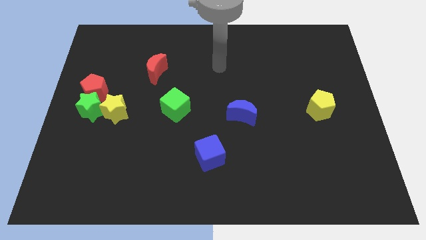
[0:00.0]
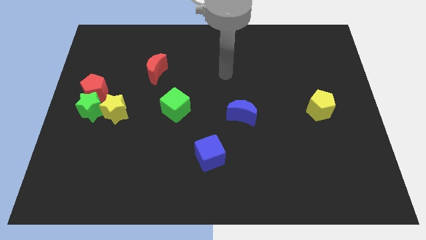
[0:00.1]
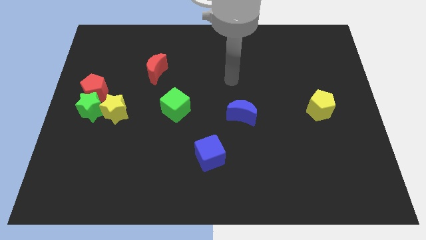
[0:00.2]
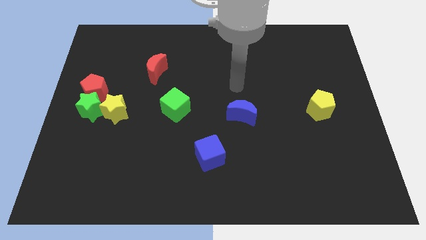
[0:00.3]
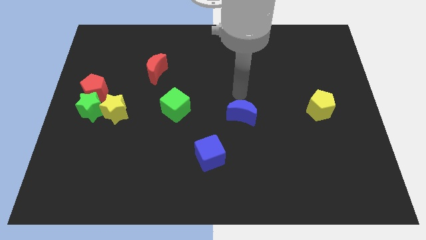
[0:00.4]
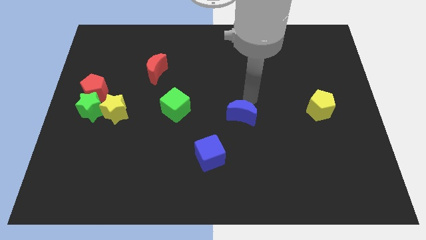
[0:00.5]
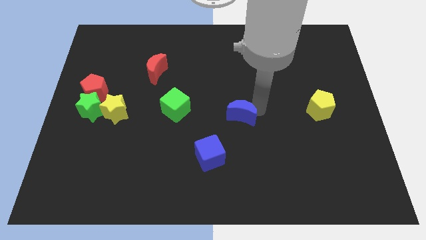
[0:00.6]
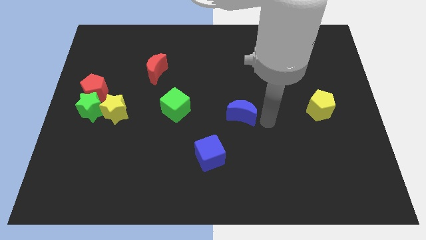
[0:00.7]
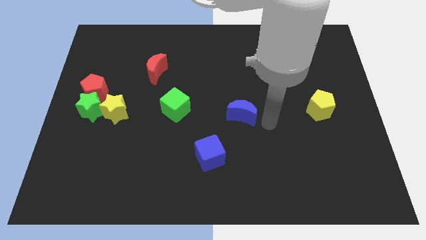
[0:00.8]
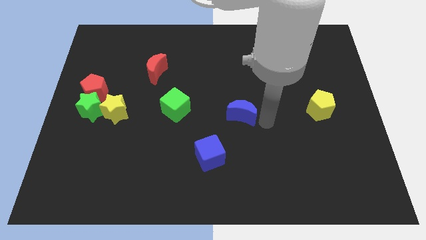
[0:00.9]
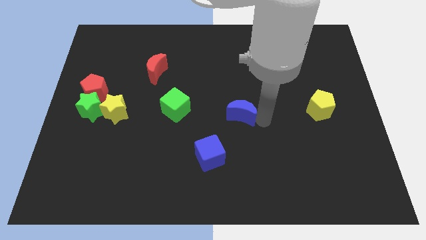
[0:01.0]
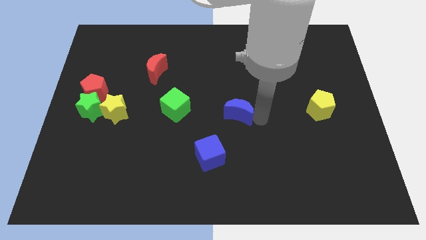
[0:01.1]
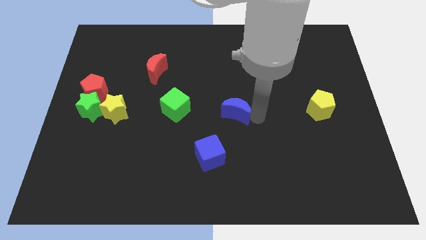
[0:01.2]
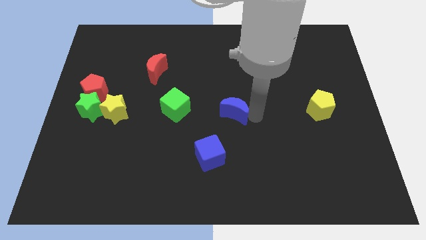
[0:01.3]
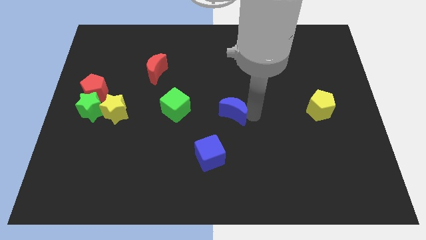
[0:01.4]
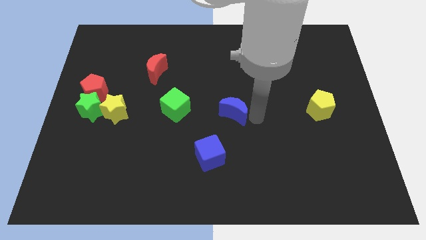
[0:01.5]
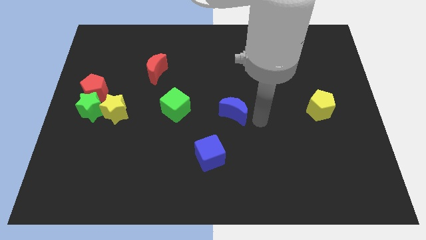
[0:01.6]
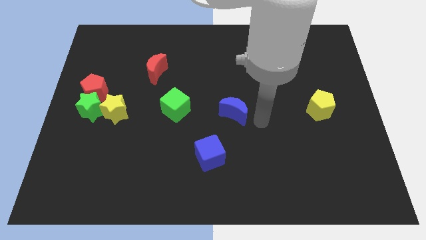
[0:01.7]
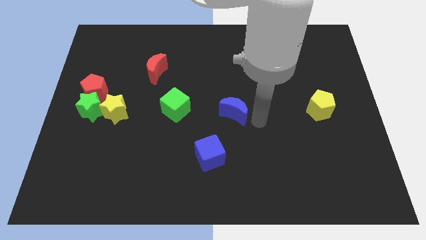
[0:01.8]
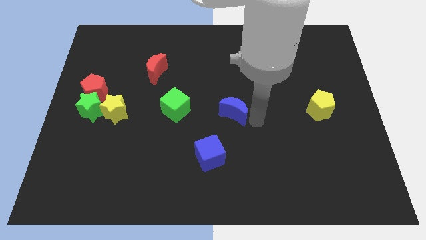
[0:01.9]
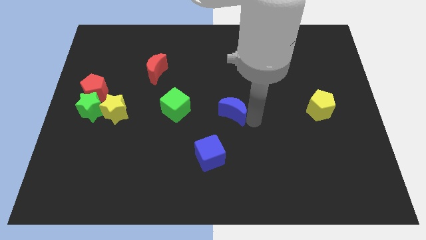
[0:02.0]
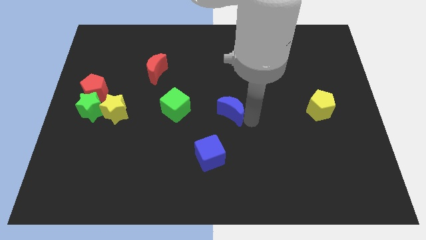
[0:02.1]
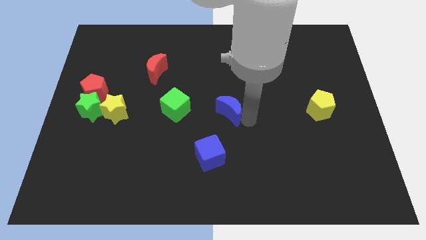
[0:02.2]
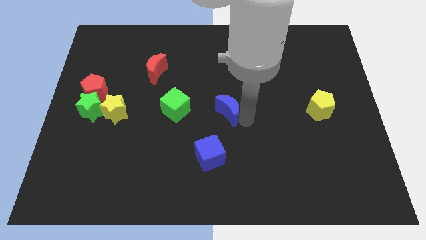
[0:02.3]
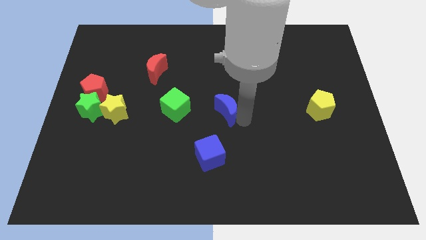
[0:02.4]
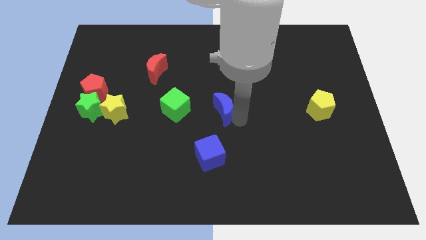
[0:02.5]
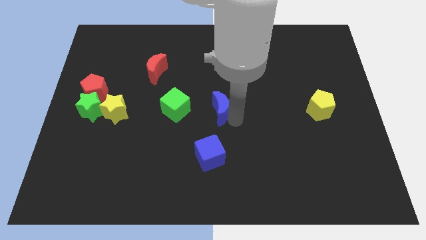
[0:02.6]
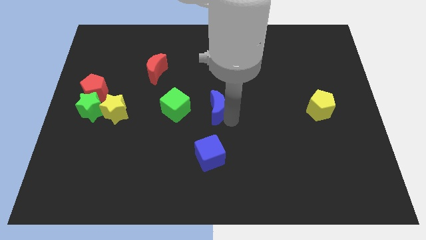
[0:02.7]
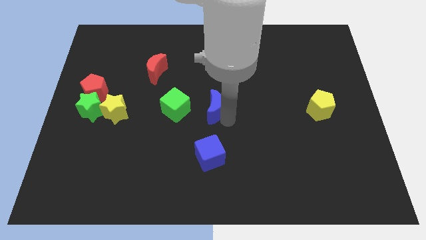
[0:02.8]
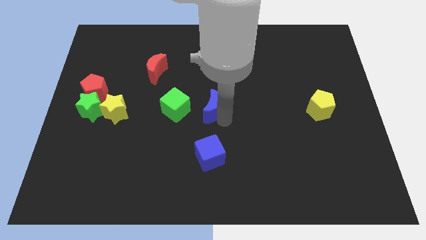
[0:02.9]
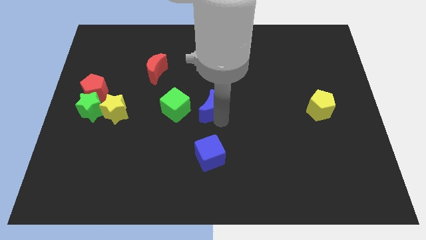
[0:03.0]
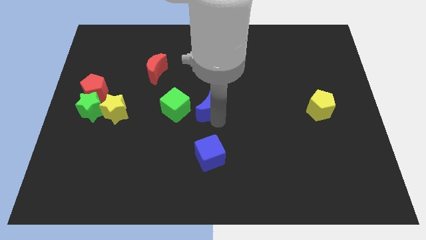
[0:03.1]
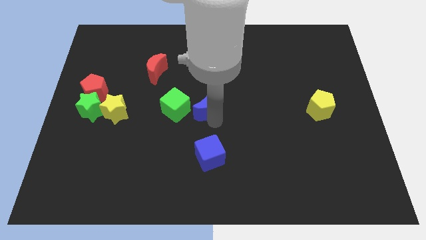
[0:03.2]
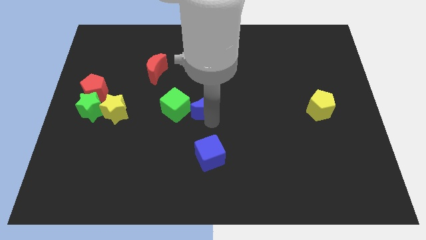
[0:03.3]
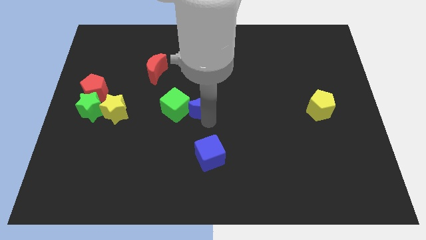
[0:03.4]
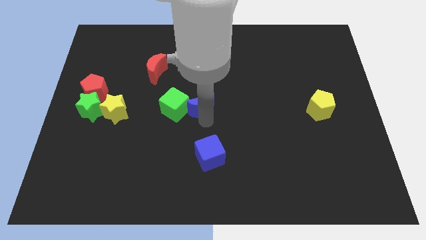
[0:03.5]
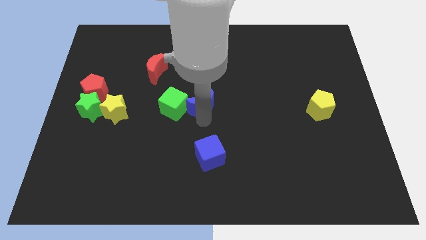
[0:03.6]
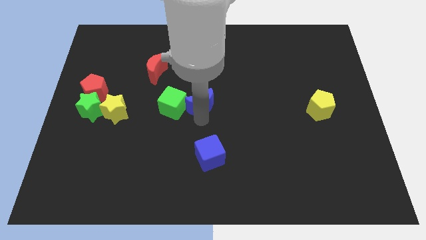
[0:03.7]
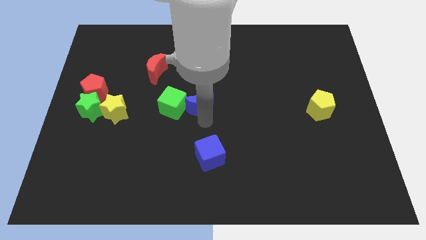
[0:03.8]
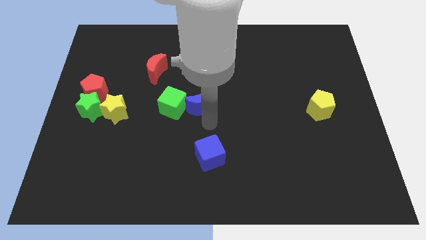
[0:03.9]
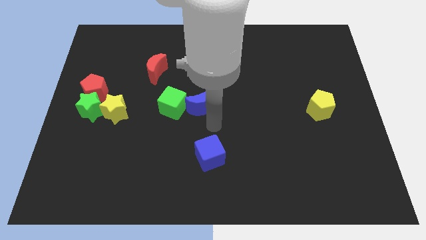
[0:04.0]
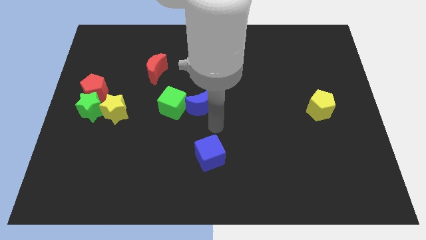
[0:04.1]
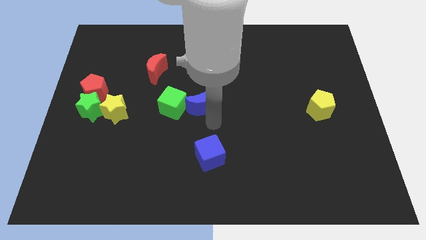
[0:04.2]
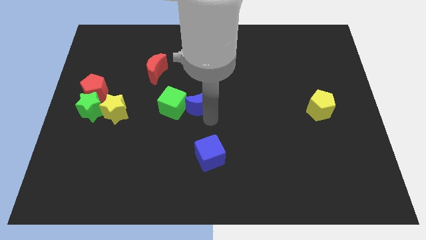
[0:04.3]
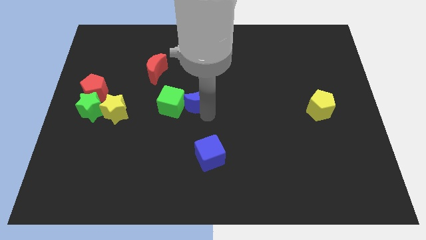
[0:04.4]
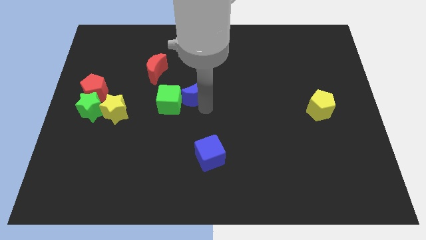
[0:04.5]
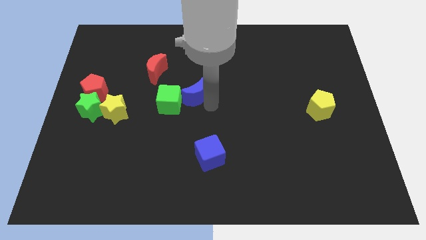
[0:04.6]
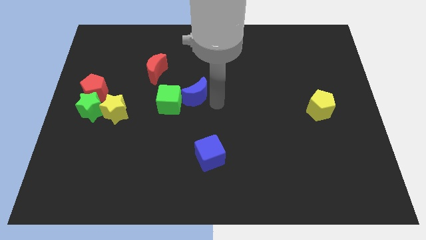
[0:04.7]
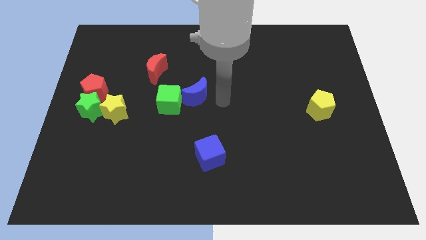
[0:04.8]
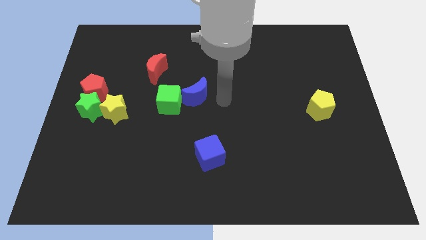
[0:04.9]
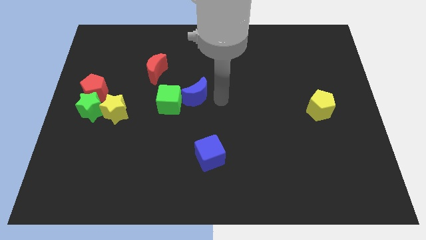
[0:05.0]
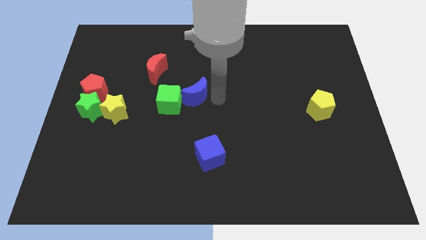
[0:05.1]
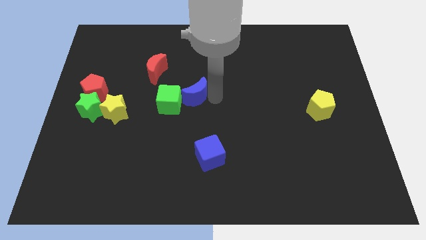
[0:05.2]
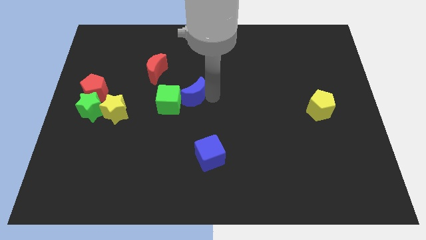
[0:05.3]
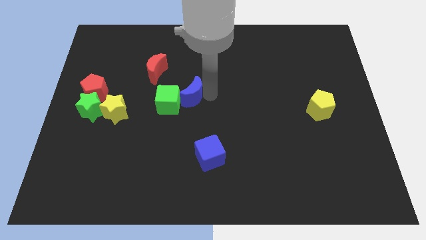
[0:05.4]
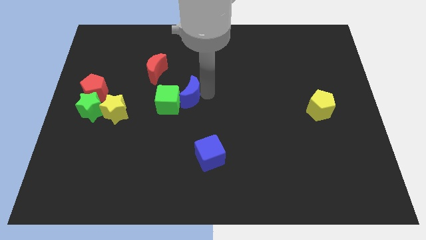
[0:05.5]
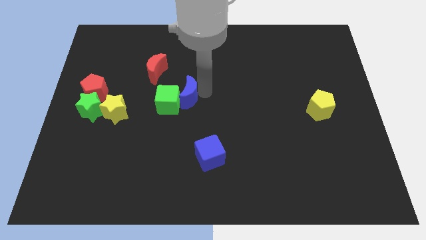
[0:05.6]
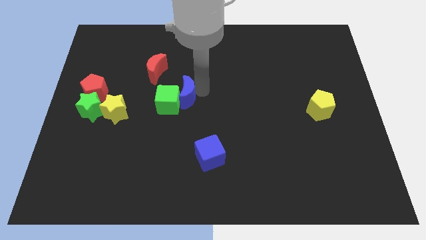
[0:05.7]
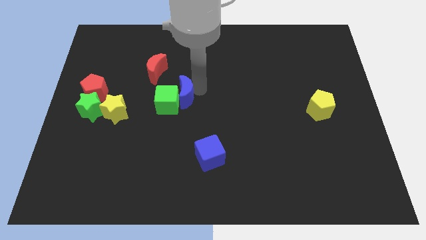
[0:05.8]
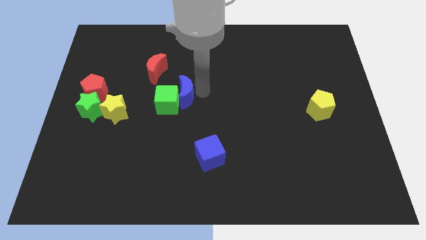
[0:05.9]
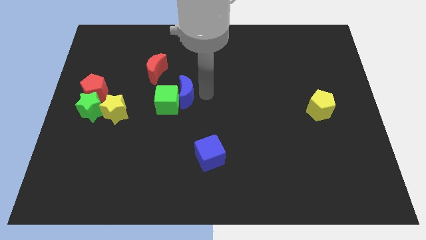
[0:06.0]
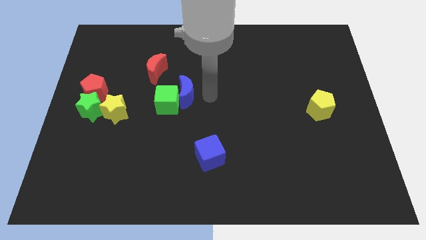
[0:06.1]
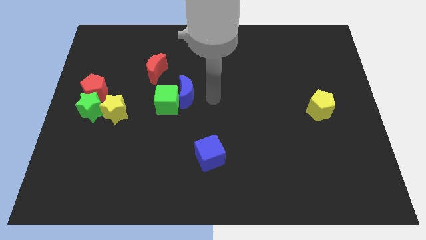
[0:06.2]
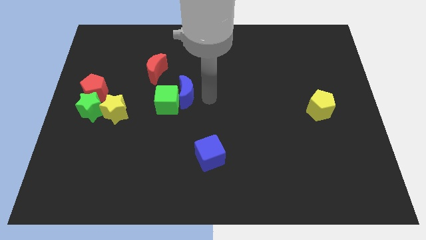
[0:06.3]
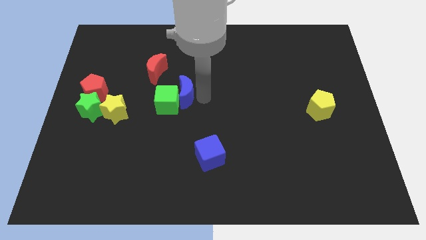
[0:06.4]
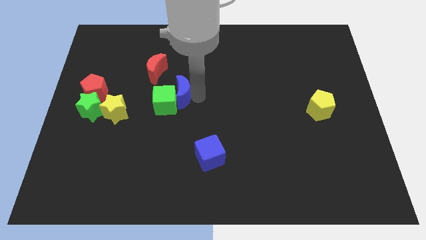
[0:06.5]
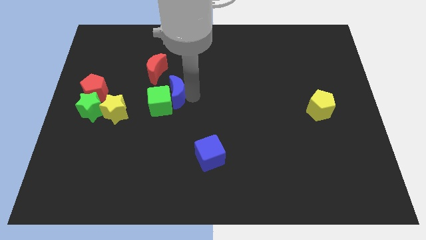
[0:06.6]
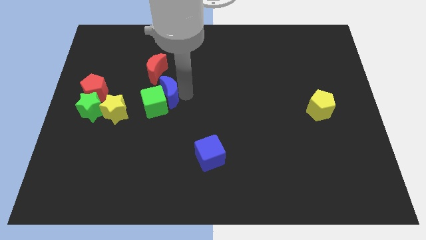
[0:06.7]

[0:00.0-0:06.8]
push the blue moon to the bottom of the red moon

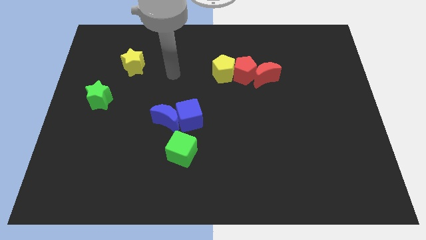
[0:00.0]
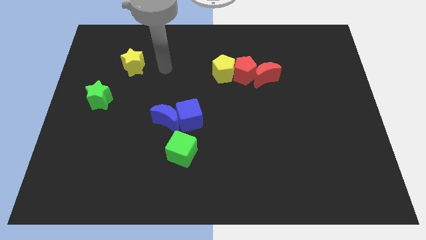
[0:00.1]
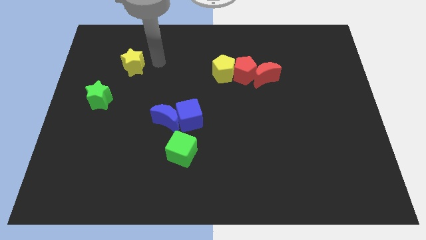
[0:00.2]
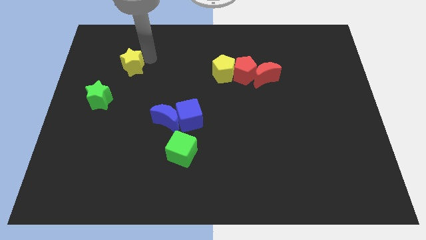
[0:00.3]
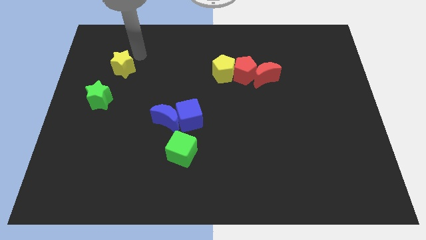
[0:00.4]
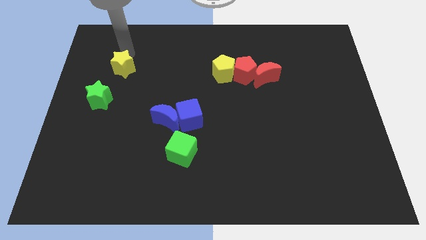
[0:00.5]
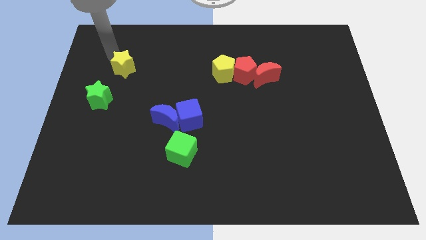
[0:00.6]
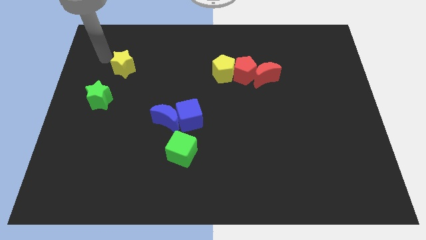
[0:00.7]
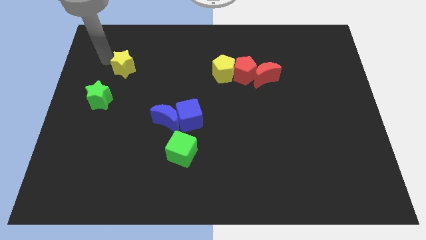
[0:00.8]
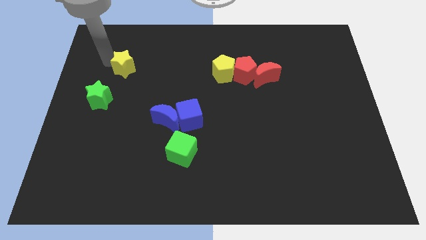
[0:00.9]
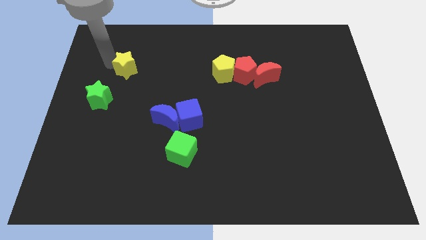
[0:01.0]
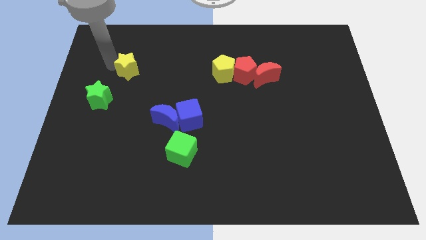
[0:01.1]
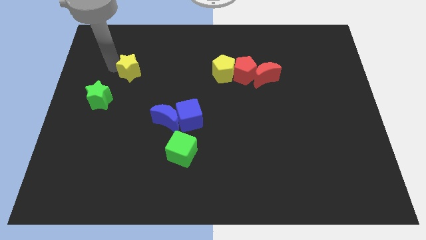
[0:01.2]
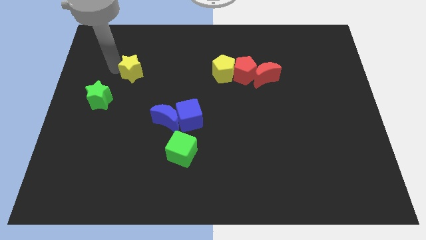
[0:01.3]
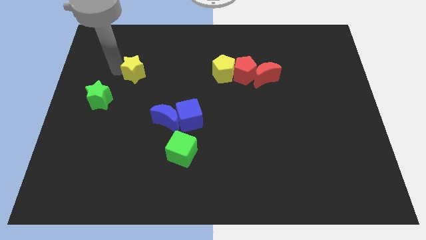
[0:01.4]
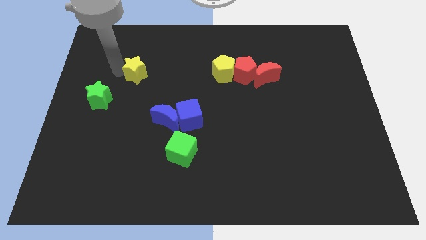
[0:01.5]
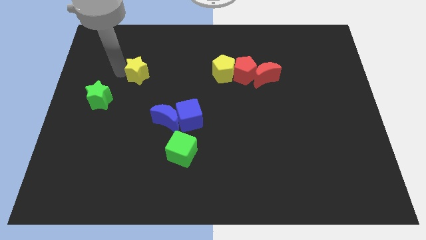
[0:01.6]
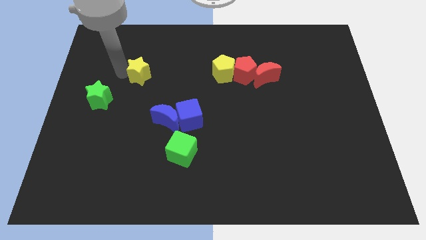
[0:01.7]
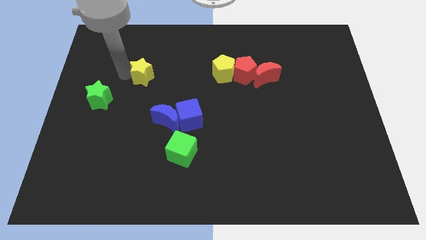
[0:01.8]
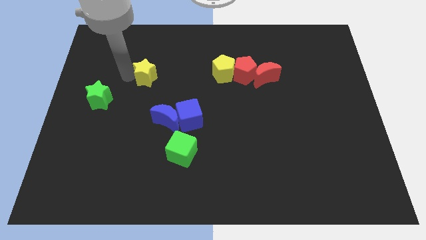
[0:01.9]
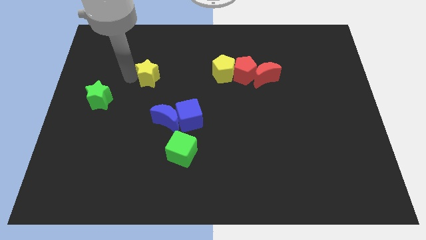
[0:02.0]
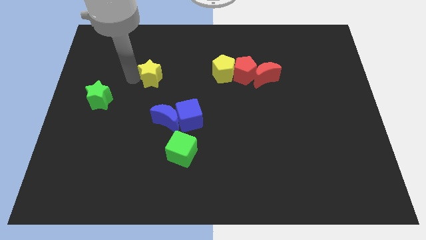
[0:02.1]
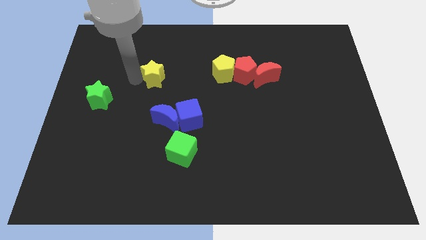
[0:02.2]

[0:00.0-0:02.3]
move the yellow star above the blue moon
